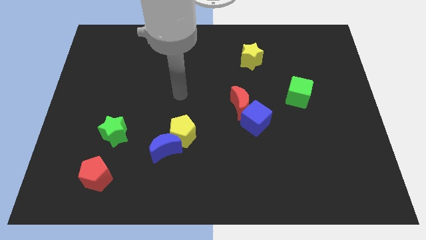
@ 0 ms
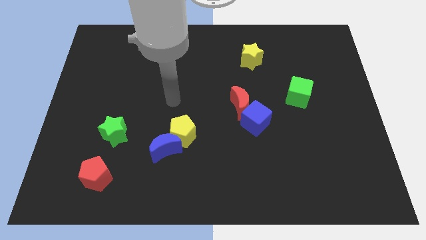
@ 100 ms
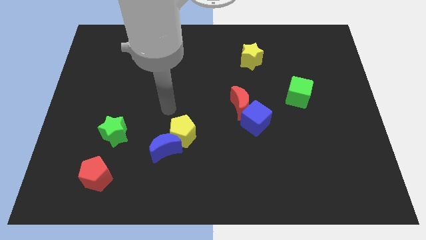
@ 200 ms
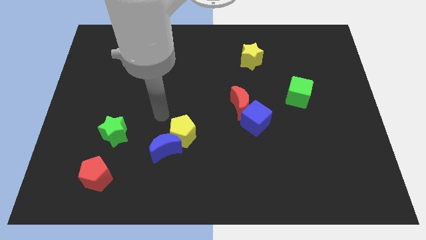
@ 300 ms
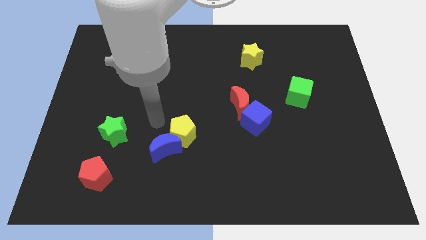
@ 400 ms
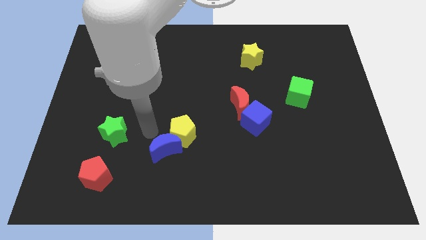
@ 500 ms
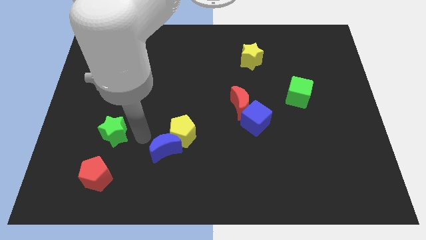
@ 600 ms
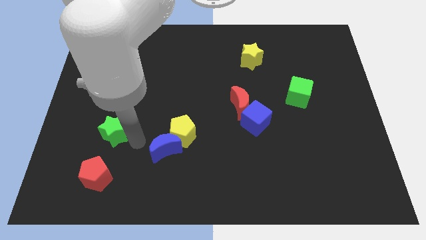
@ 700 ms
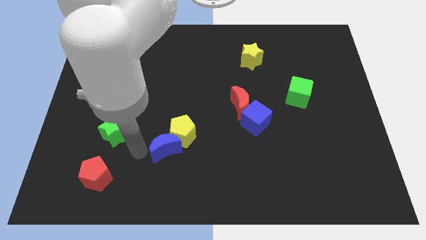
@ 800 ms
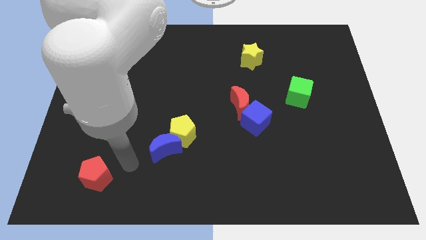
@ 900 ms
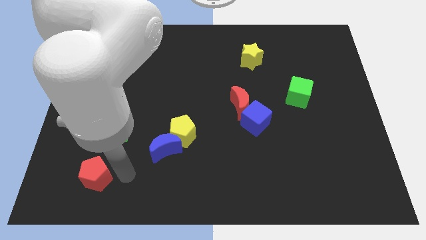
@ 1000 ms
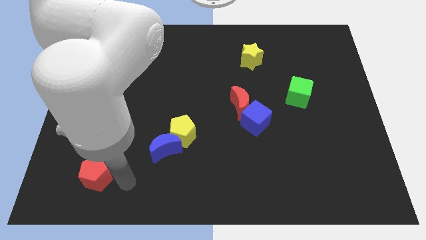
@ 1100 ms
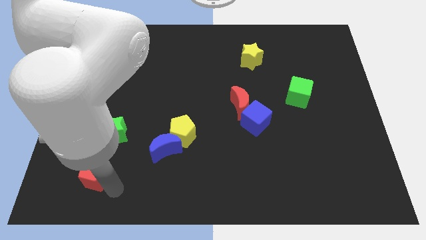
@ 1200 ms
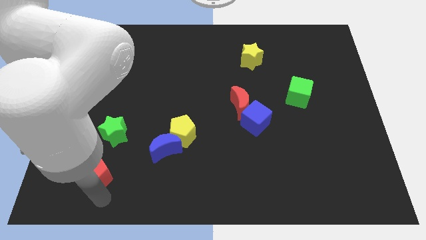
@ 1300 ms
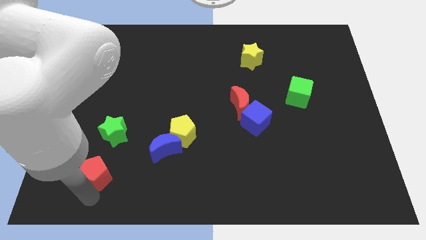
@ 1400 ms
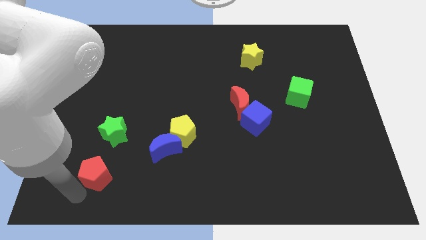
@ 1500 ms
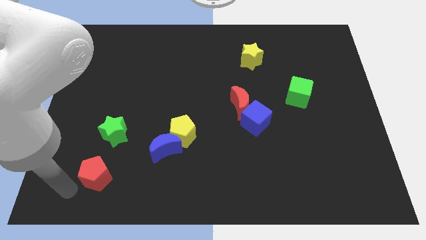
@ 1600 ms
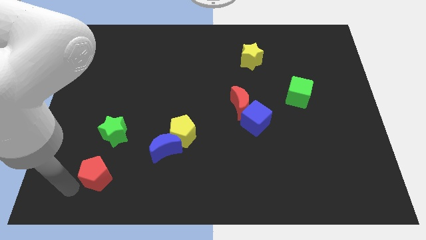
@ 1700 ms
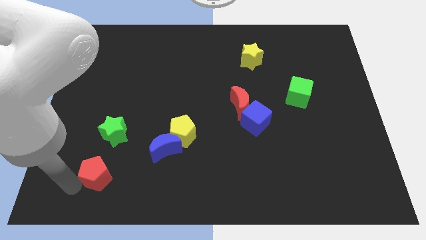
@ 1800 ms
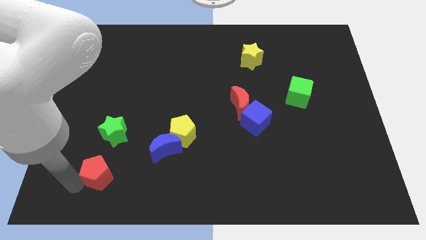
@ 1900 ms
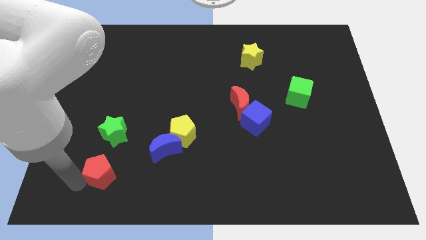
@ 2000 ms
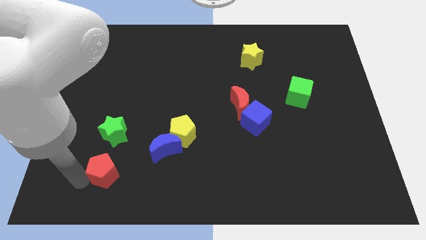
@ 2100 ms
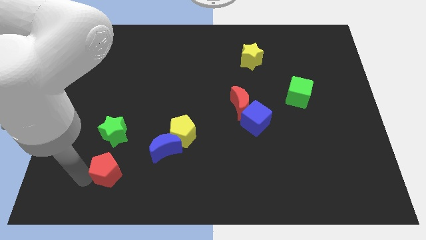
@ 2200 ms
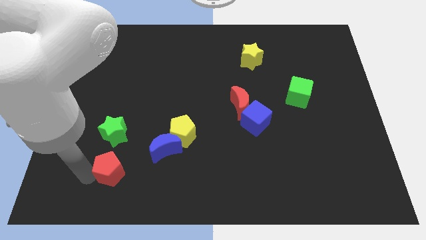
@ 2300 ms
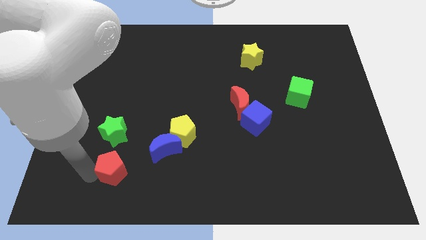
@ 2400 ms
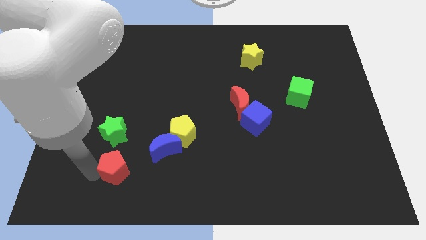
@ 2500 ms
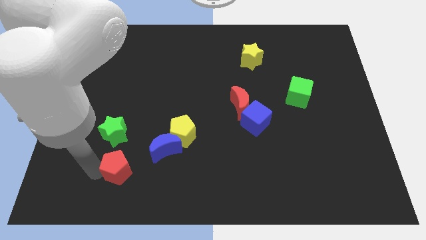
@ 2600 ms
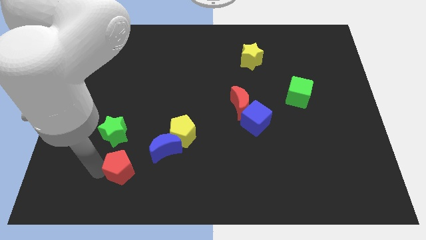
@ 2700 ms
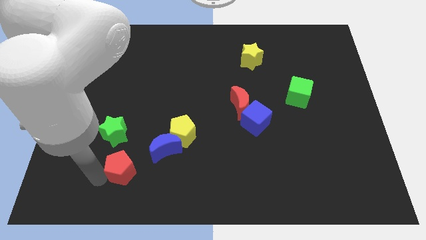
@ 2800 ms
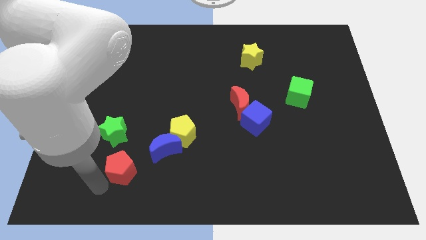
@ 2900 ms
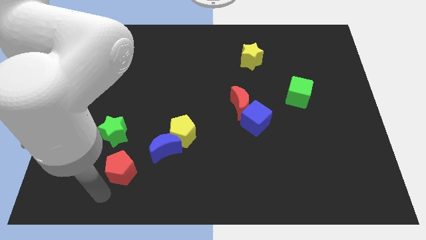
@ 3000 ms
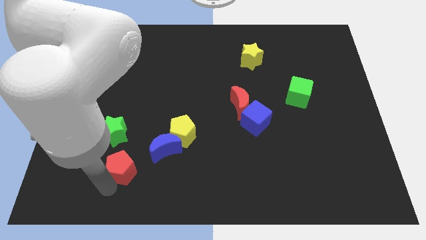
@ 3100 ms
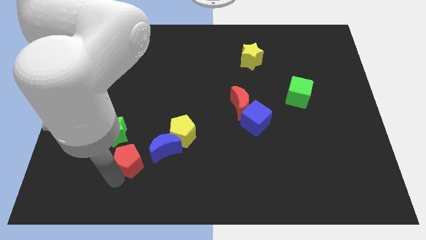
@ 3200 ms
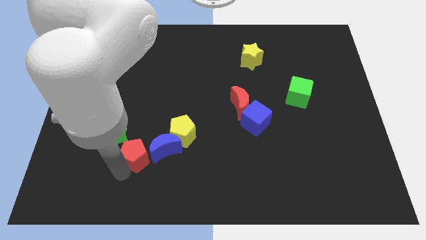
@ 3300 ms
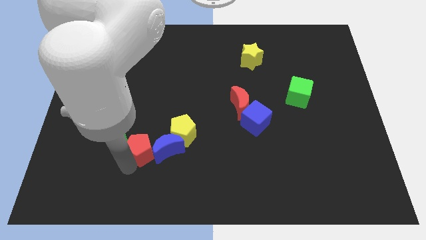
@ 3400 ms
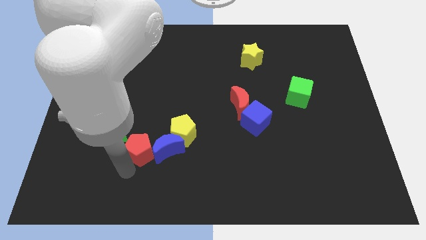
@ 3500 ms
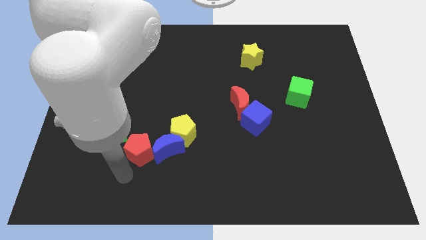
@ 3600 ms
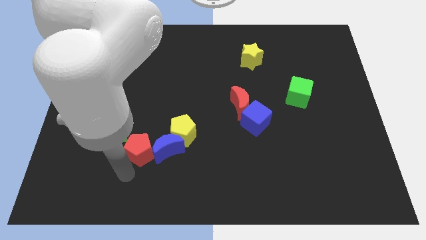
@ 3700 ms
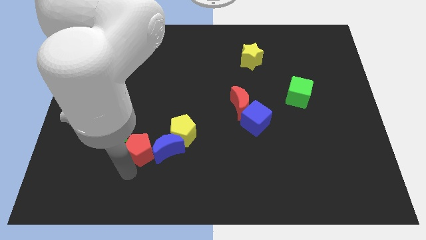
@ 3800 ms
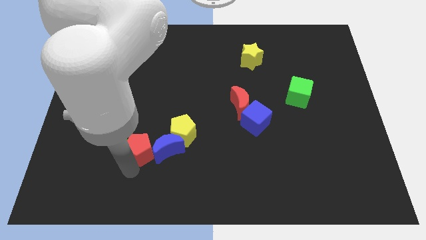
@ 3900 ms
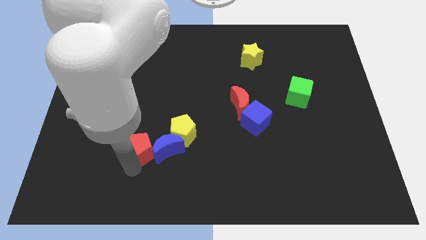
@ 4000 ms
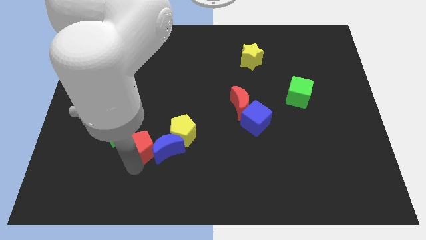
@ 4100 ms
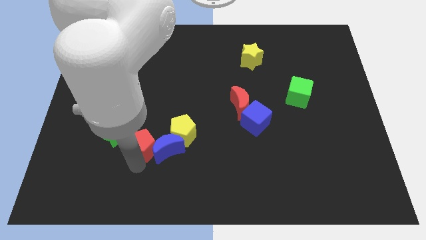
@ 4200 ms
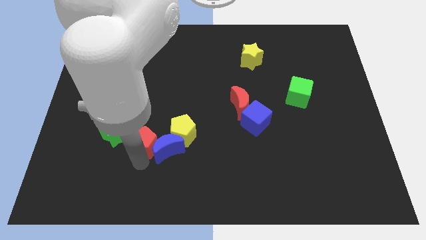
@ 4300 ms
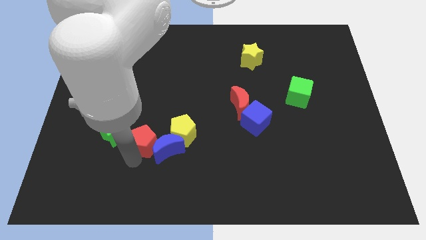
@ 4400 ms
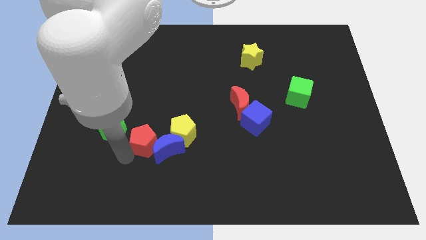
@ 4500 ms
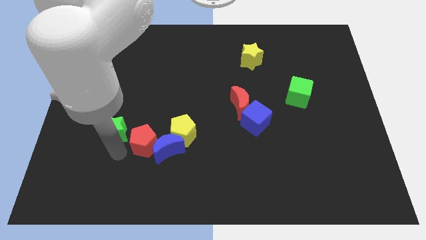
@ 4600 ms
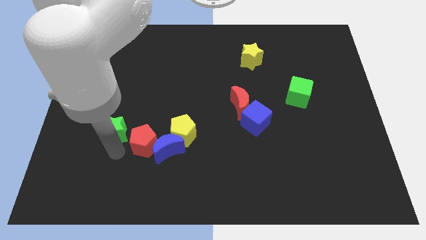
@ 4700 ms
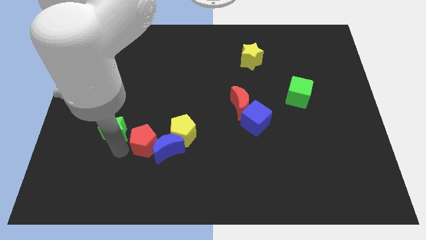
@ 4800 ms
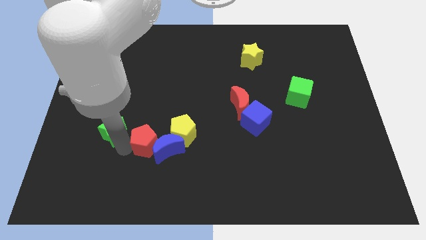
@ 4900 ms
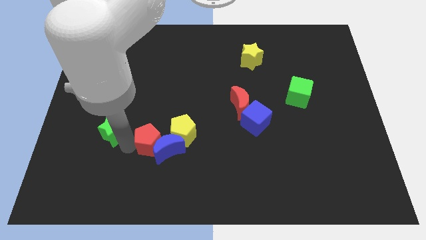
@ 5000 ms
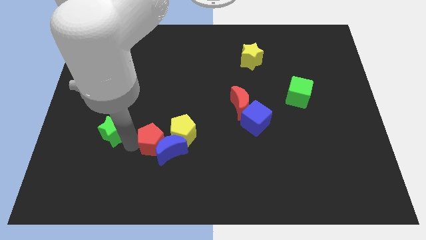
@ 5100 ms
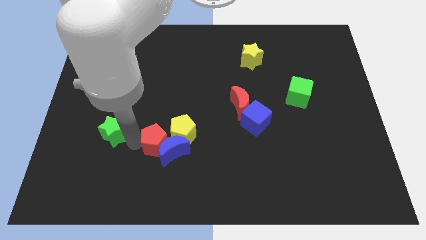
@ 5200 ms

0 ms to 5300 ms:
move the red pentagon next to the yellow pentagon

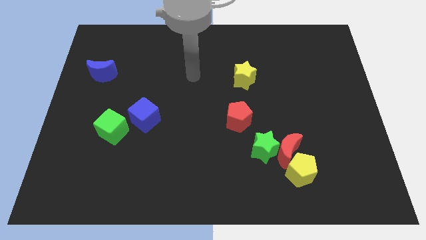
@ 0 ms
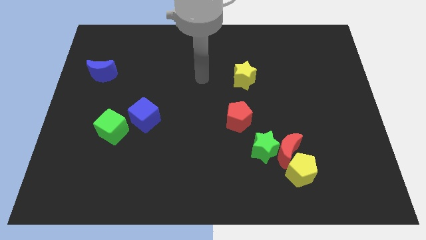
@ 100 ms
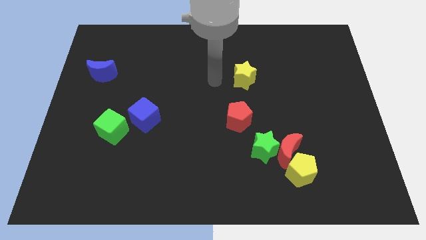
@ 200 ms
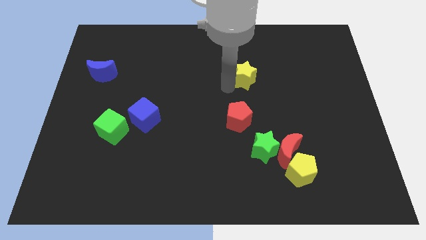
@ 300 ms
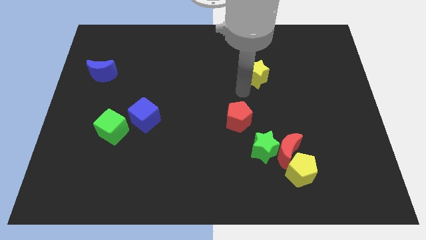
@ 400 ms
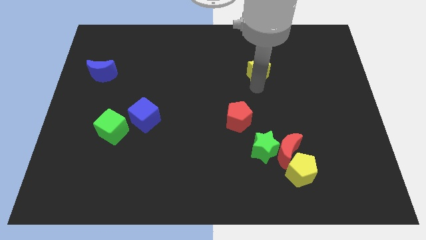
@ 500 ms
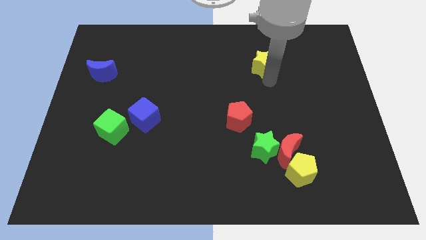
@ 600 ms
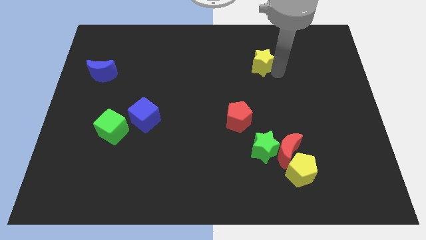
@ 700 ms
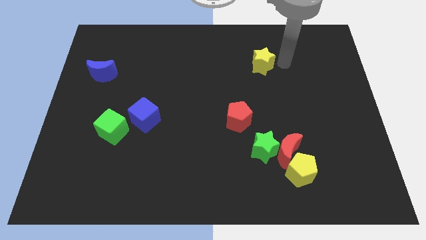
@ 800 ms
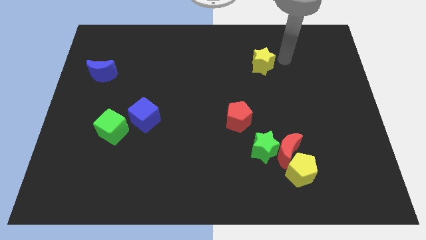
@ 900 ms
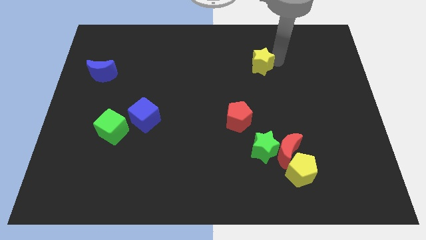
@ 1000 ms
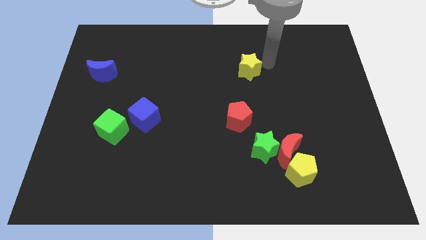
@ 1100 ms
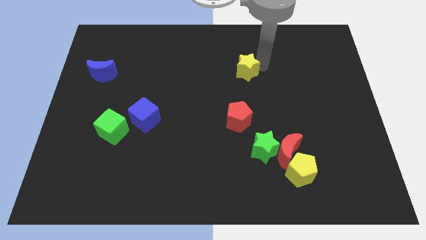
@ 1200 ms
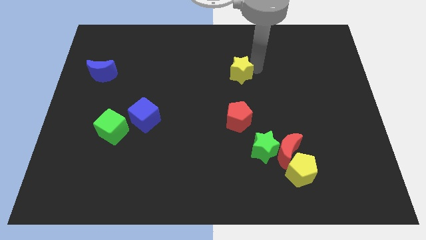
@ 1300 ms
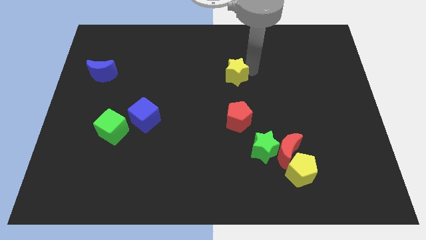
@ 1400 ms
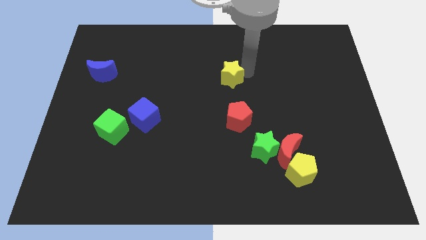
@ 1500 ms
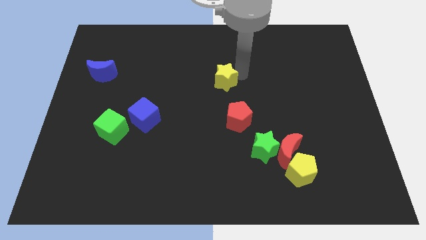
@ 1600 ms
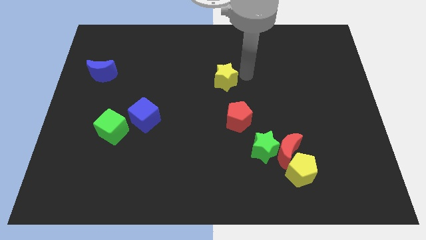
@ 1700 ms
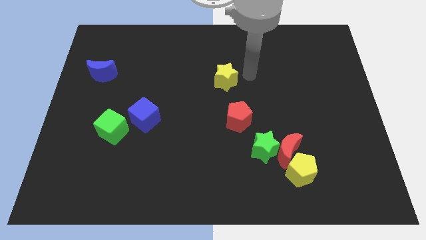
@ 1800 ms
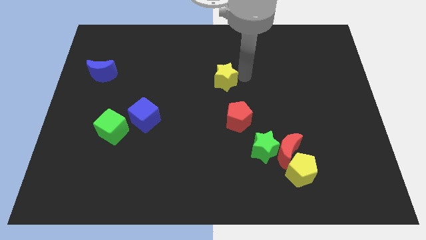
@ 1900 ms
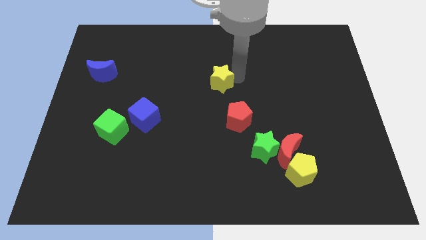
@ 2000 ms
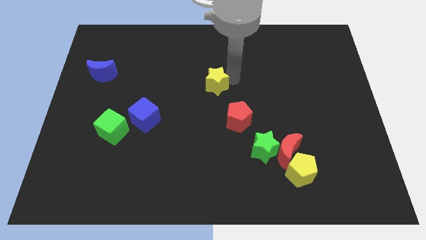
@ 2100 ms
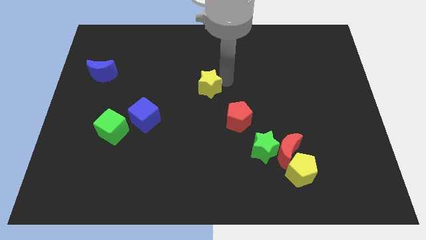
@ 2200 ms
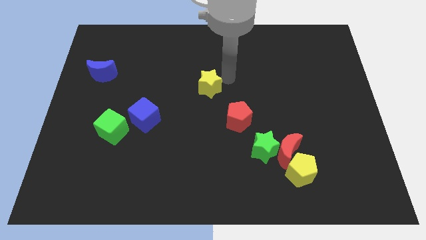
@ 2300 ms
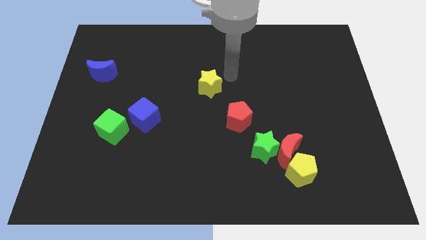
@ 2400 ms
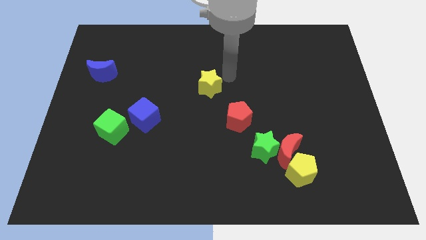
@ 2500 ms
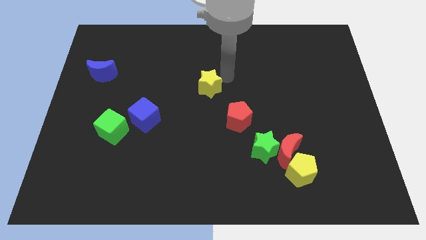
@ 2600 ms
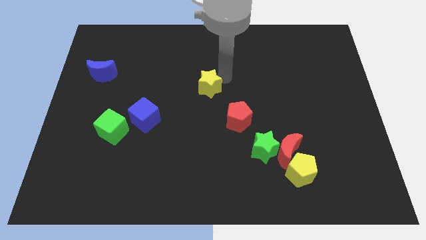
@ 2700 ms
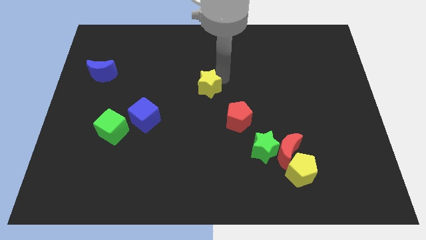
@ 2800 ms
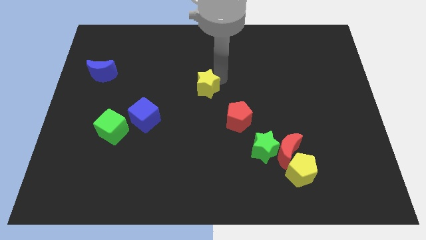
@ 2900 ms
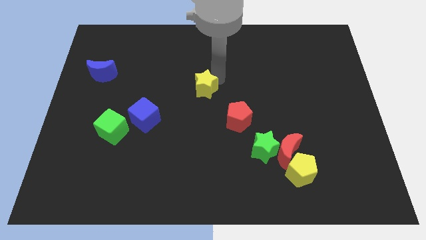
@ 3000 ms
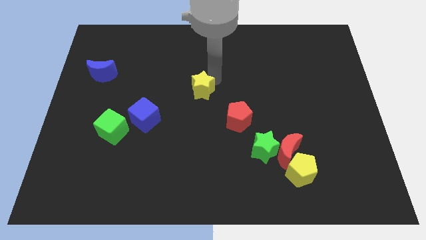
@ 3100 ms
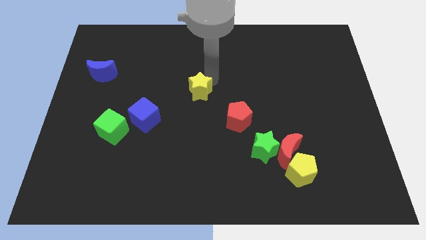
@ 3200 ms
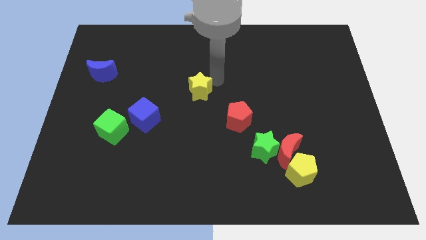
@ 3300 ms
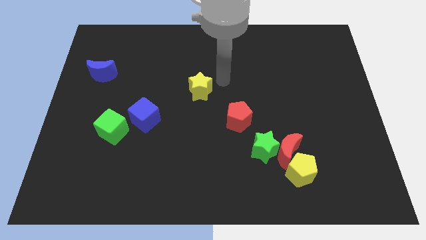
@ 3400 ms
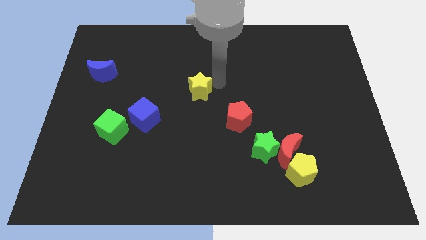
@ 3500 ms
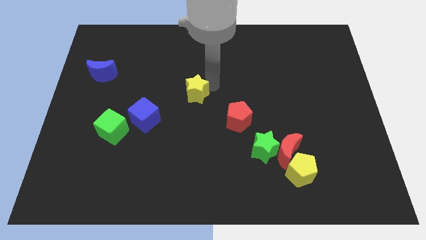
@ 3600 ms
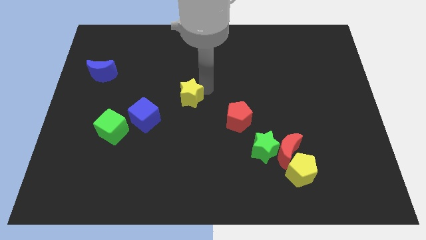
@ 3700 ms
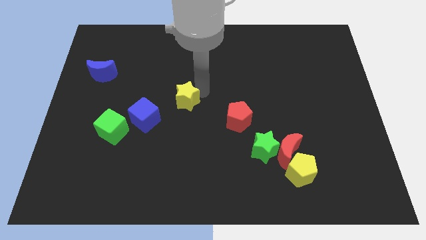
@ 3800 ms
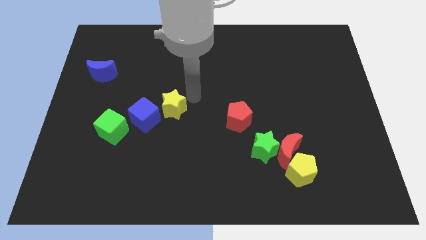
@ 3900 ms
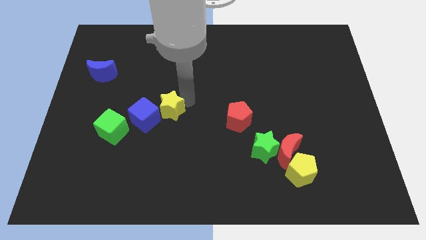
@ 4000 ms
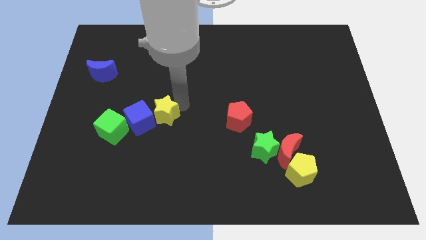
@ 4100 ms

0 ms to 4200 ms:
put the yellow star close to the blue cube
